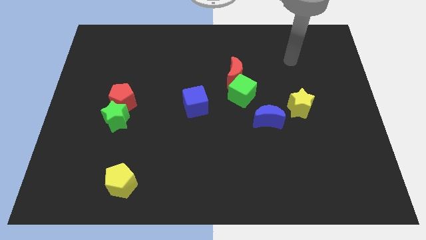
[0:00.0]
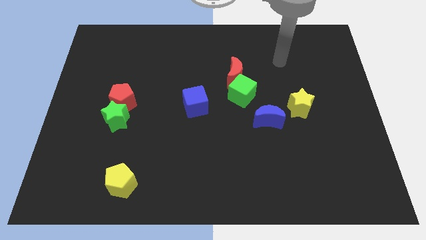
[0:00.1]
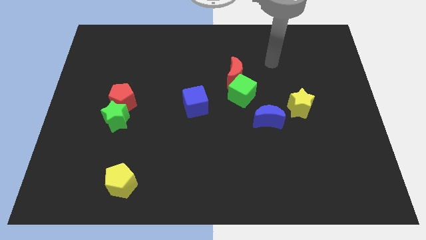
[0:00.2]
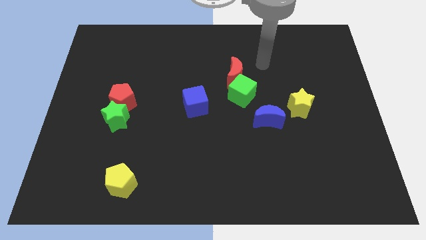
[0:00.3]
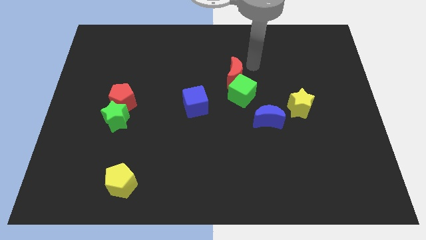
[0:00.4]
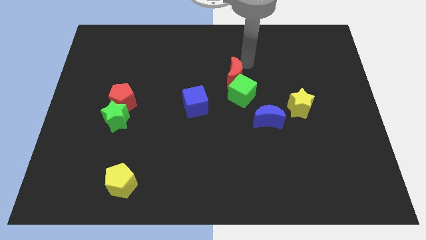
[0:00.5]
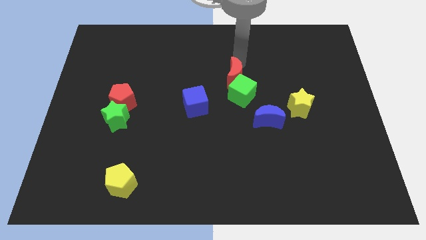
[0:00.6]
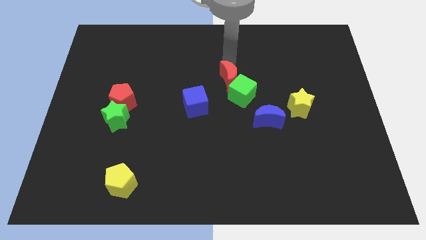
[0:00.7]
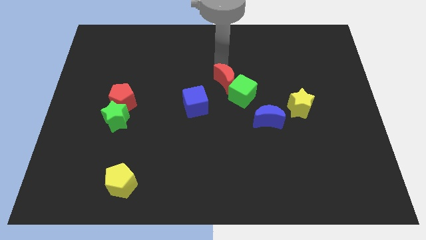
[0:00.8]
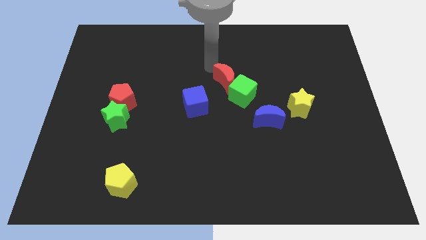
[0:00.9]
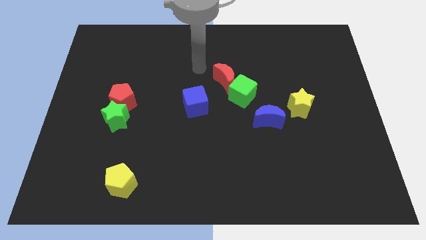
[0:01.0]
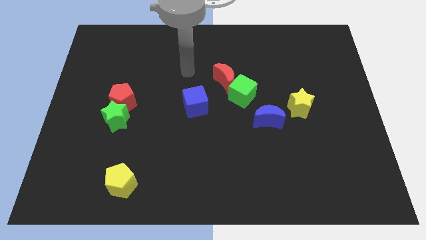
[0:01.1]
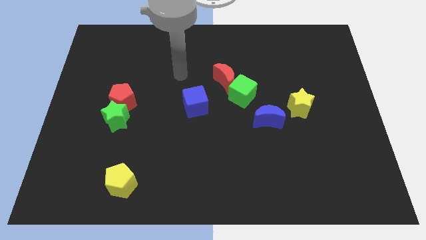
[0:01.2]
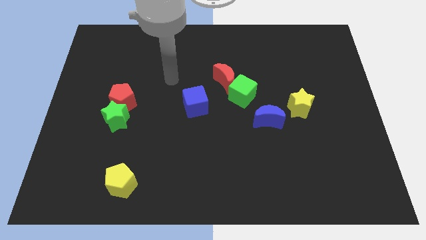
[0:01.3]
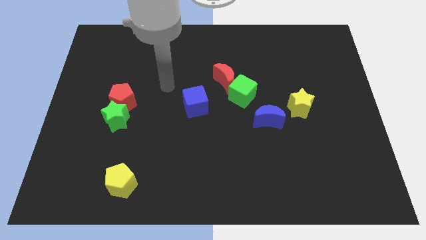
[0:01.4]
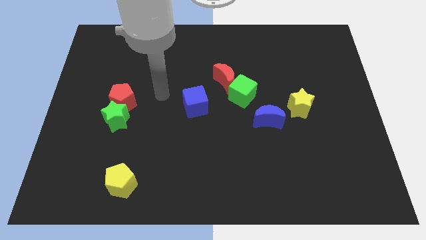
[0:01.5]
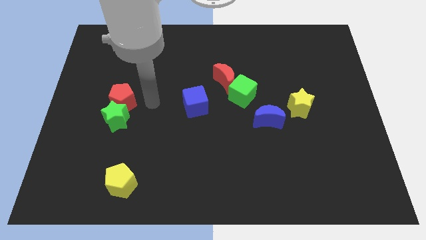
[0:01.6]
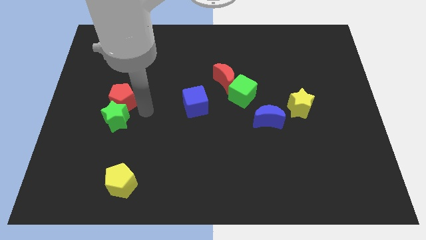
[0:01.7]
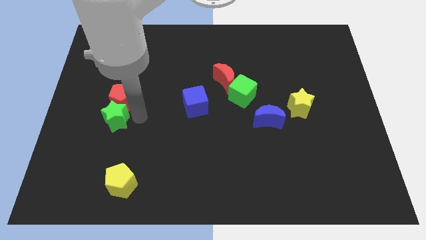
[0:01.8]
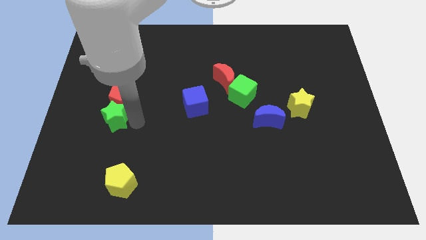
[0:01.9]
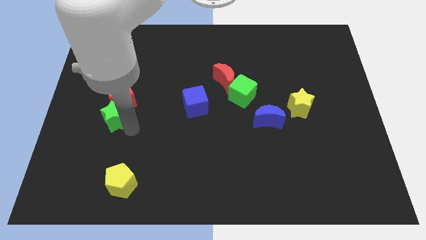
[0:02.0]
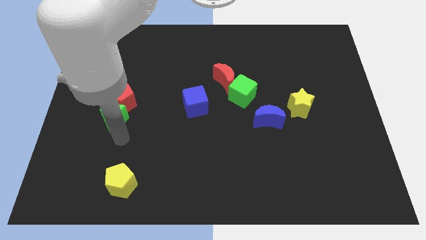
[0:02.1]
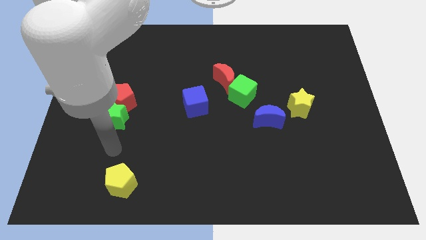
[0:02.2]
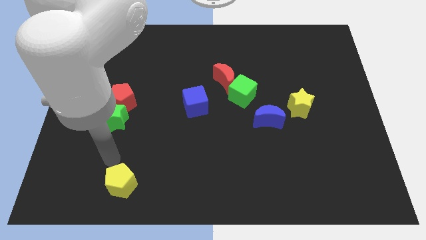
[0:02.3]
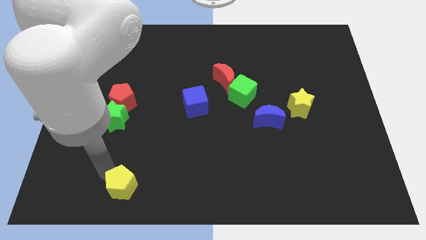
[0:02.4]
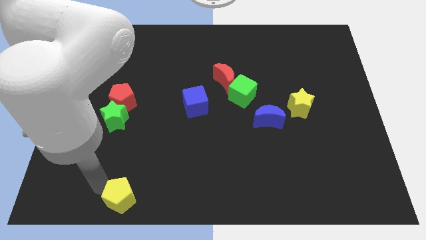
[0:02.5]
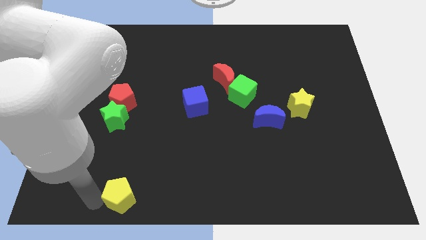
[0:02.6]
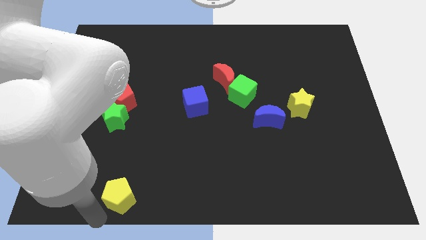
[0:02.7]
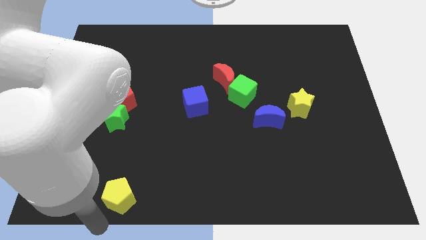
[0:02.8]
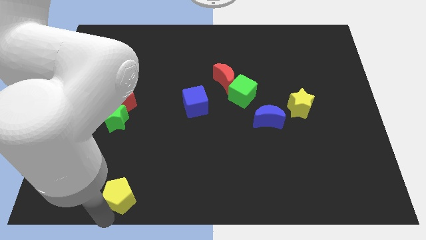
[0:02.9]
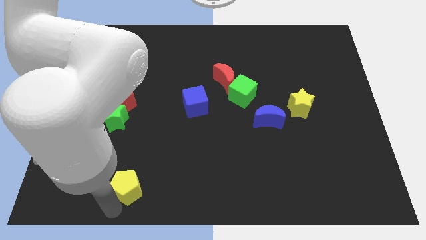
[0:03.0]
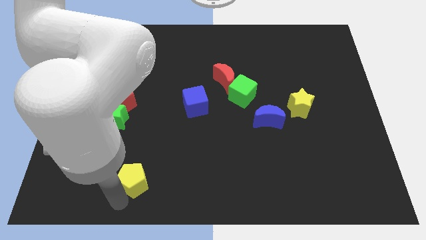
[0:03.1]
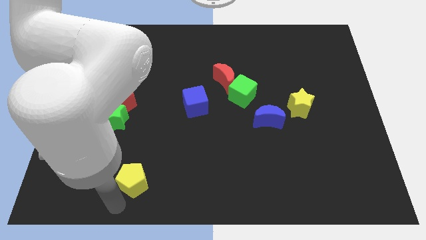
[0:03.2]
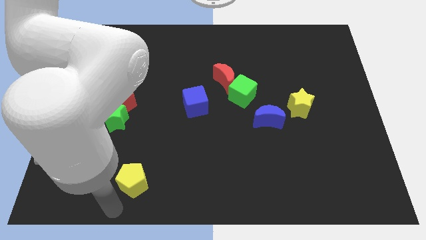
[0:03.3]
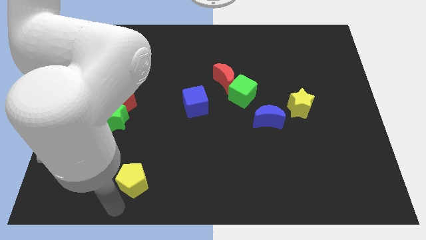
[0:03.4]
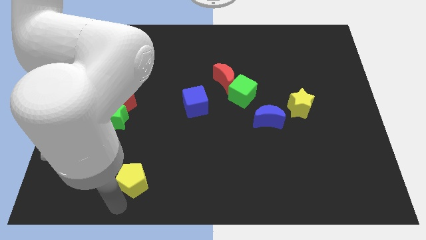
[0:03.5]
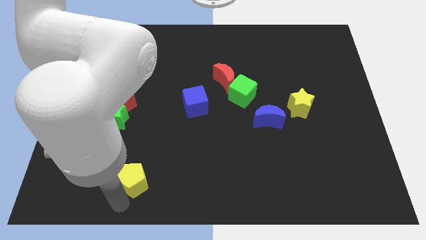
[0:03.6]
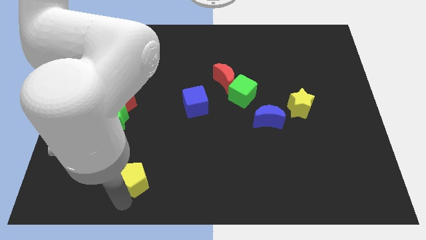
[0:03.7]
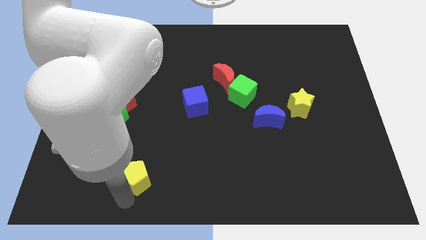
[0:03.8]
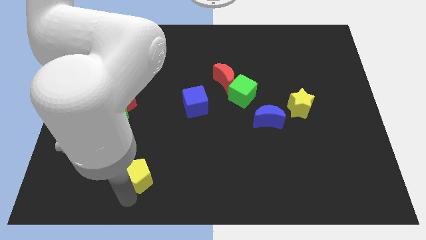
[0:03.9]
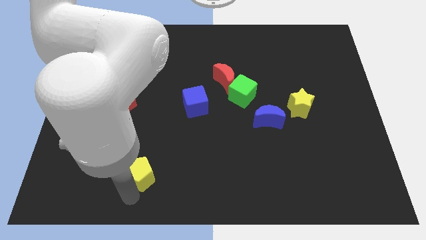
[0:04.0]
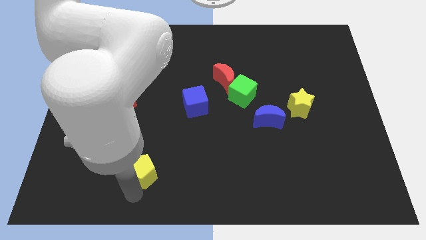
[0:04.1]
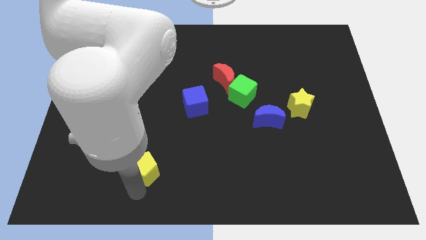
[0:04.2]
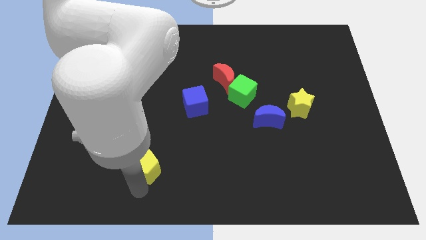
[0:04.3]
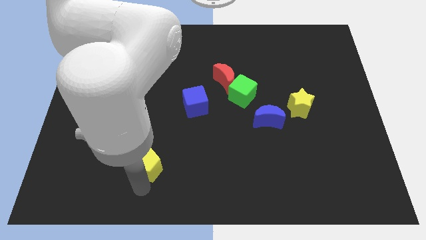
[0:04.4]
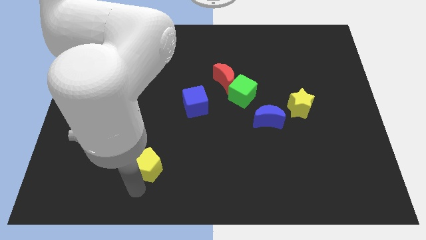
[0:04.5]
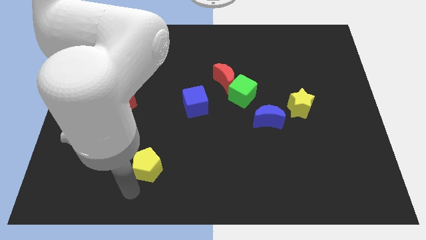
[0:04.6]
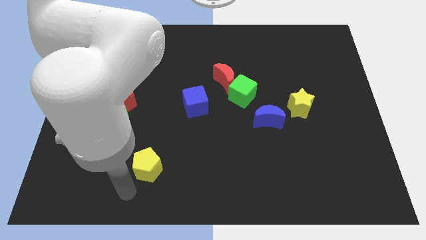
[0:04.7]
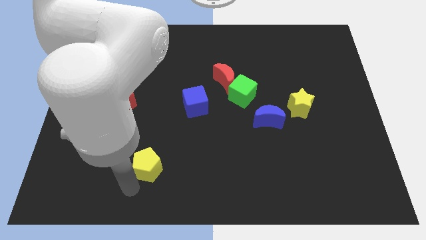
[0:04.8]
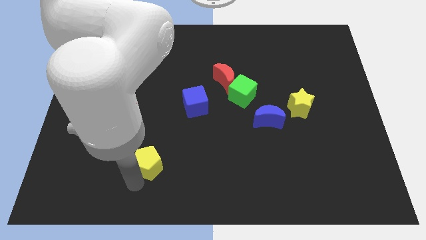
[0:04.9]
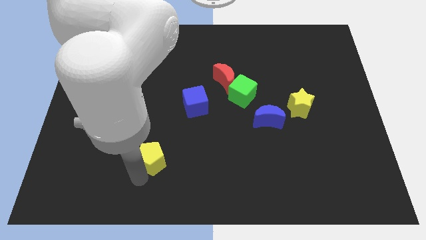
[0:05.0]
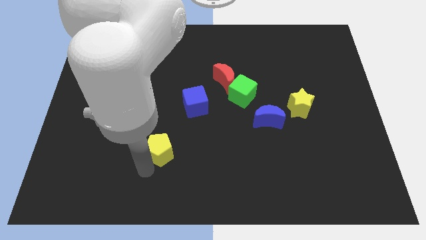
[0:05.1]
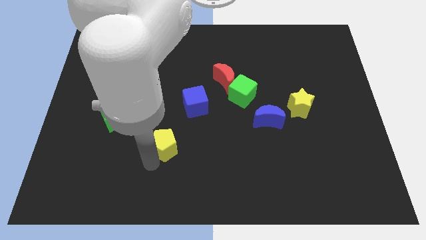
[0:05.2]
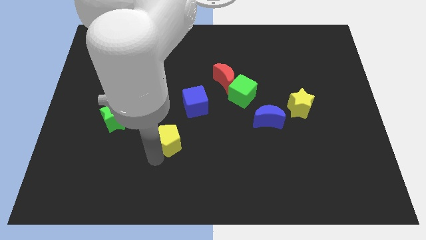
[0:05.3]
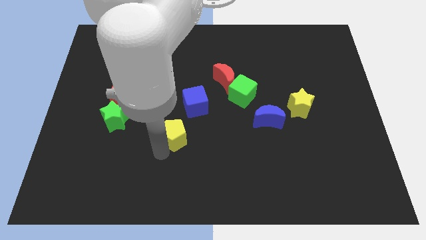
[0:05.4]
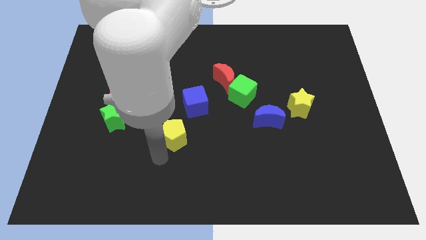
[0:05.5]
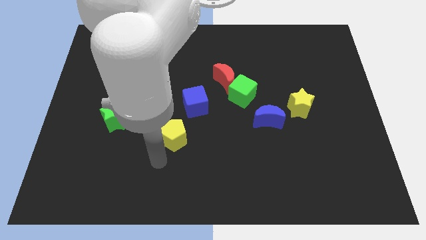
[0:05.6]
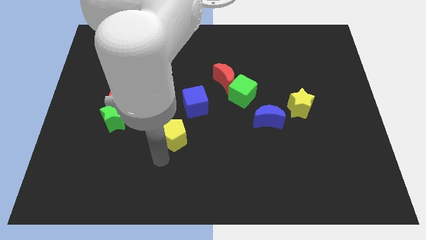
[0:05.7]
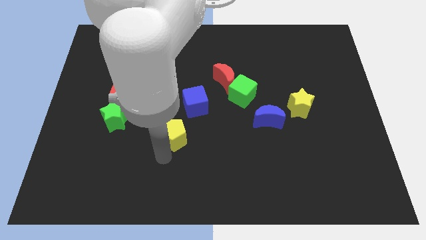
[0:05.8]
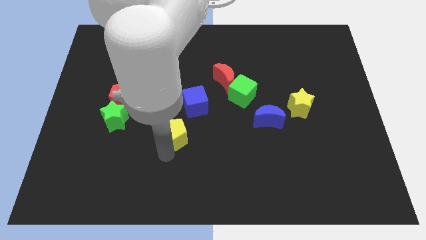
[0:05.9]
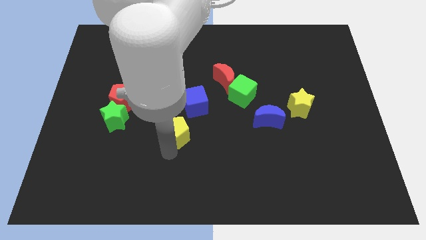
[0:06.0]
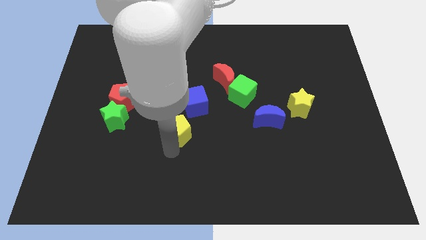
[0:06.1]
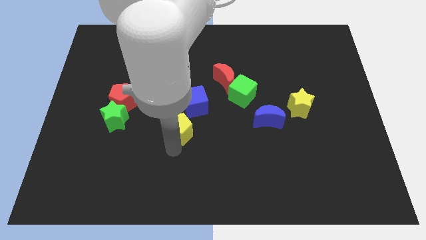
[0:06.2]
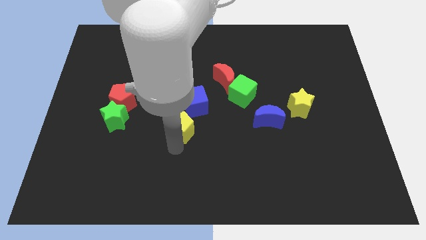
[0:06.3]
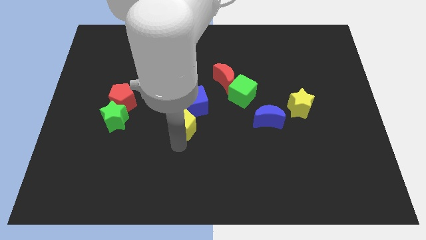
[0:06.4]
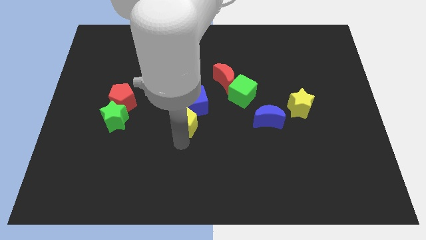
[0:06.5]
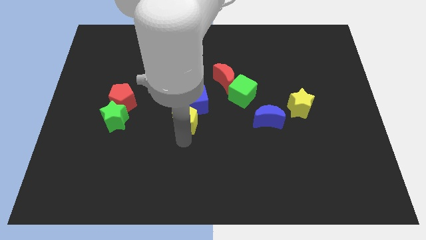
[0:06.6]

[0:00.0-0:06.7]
put the yellow pentagon close to the blue cube

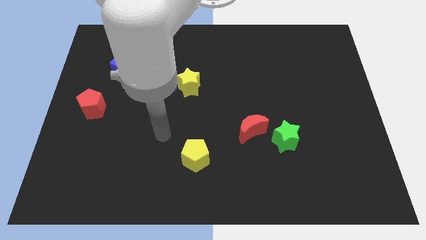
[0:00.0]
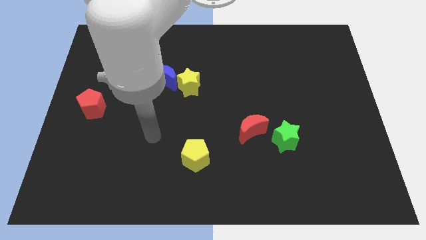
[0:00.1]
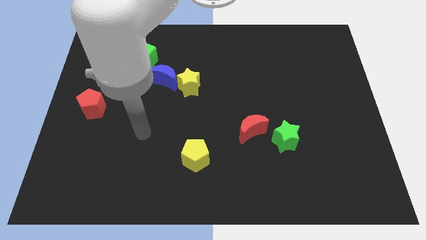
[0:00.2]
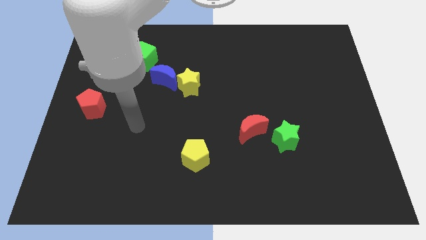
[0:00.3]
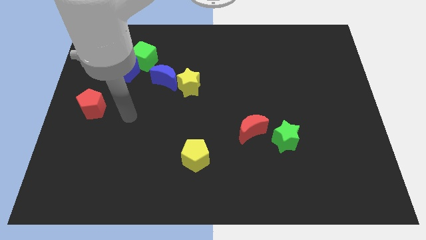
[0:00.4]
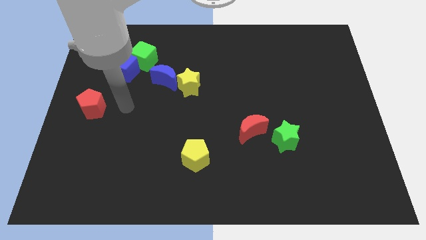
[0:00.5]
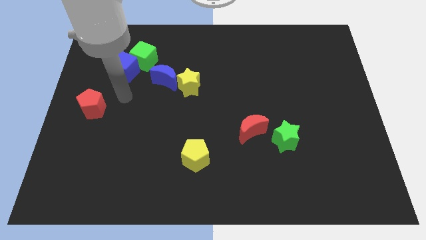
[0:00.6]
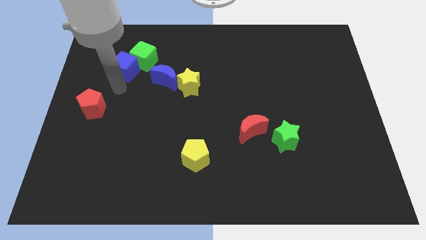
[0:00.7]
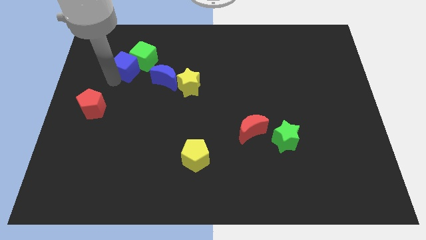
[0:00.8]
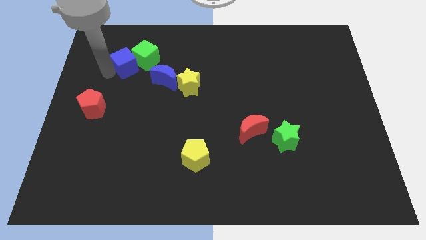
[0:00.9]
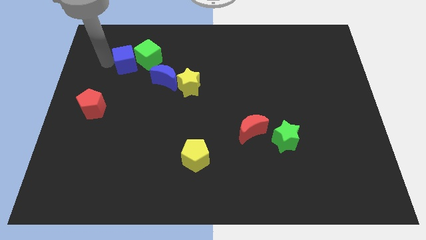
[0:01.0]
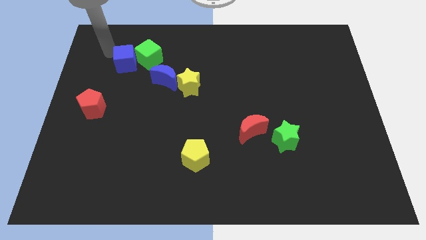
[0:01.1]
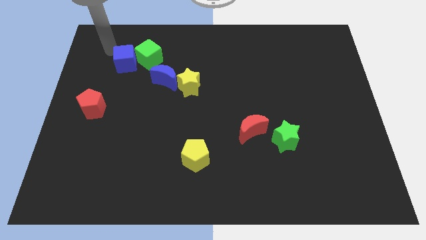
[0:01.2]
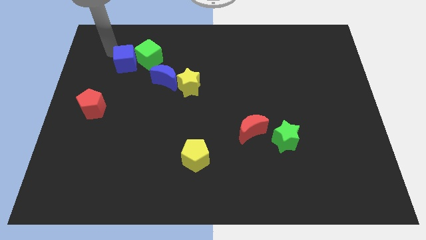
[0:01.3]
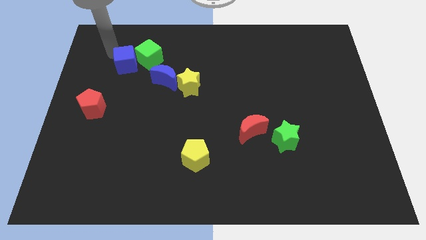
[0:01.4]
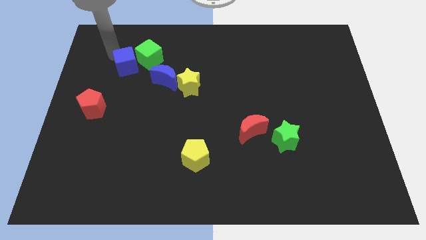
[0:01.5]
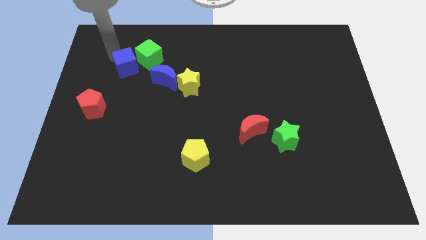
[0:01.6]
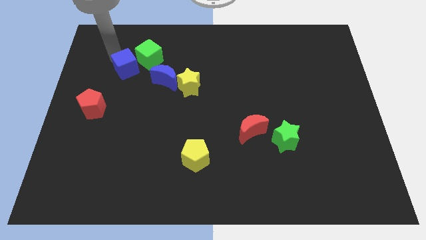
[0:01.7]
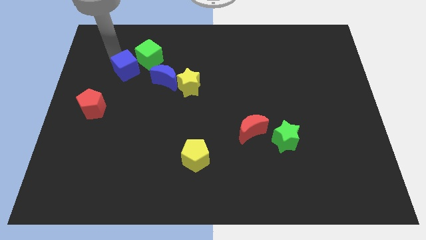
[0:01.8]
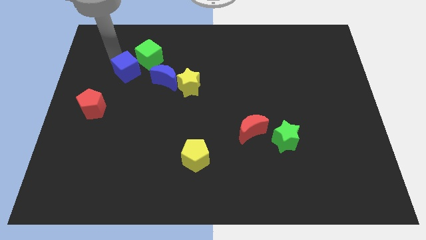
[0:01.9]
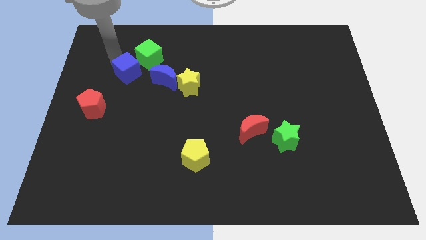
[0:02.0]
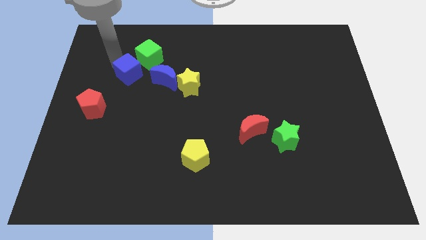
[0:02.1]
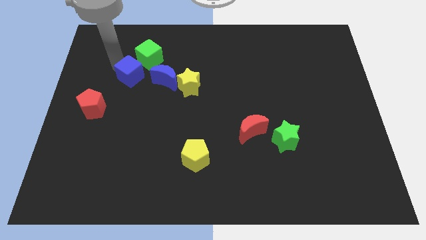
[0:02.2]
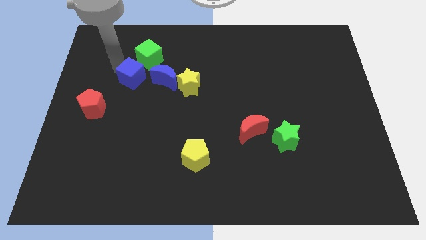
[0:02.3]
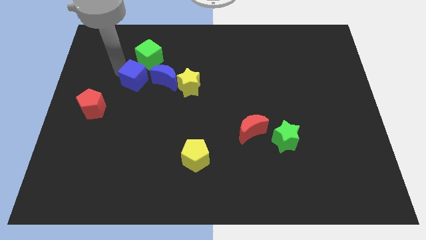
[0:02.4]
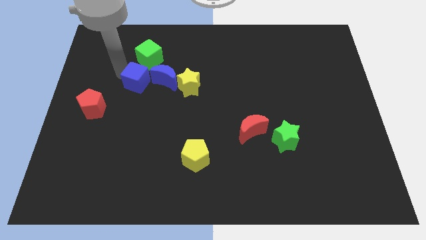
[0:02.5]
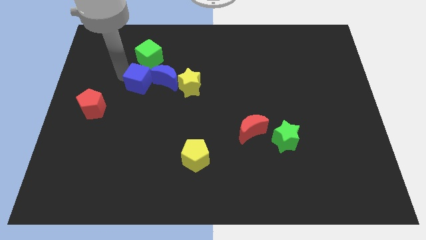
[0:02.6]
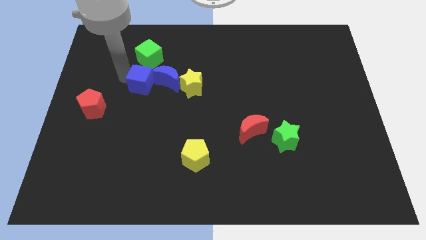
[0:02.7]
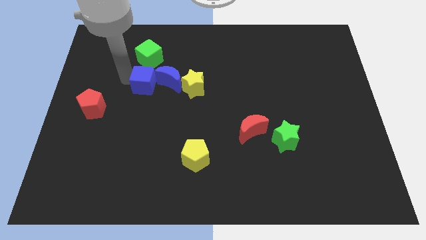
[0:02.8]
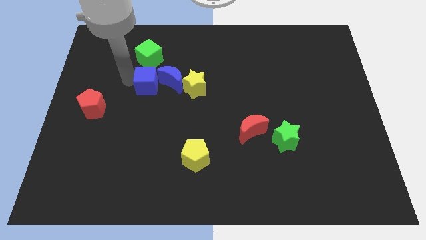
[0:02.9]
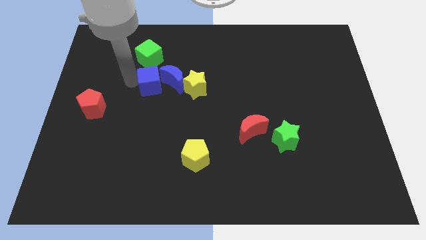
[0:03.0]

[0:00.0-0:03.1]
slide the blue cube to the blue moon
